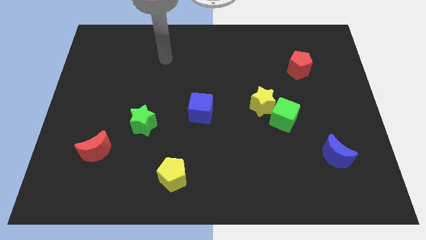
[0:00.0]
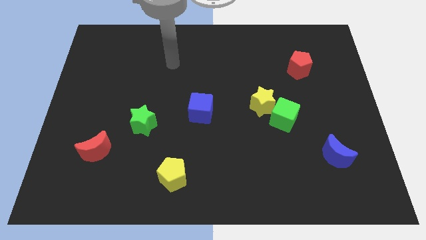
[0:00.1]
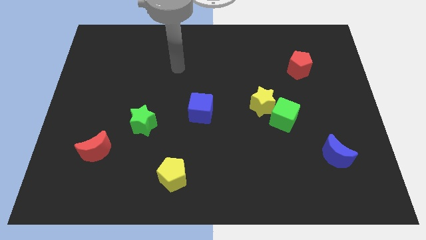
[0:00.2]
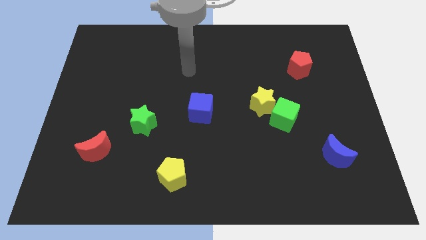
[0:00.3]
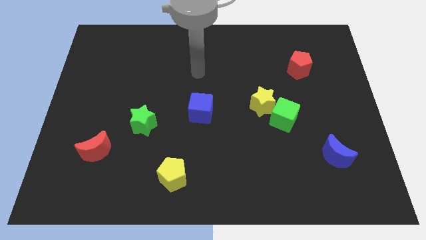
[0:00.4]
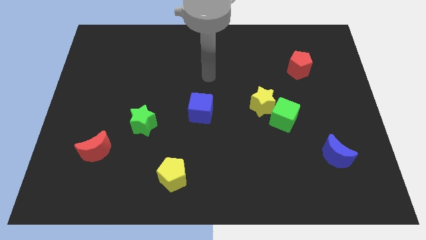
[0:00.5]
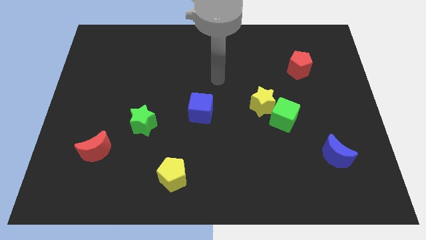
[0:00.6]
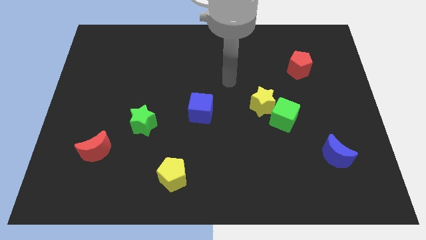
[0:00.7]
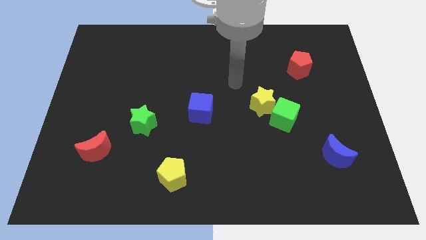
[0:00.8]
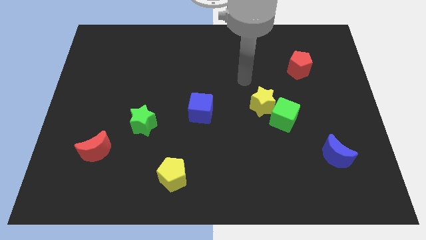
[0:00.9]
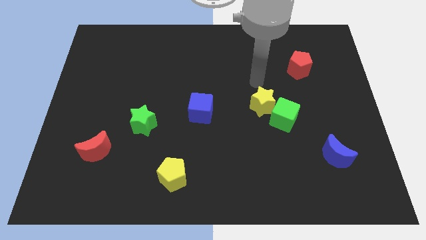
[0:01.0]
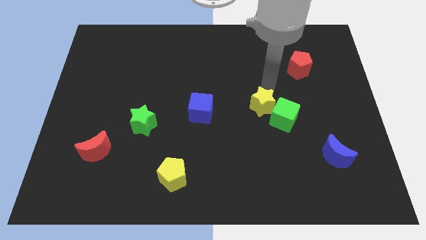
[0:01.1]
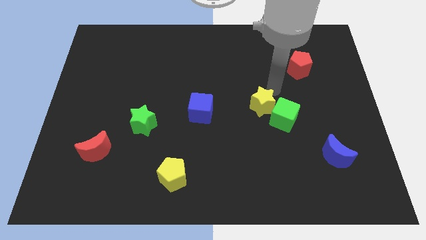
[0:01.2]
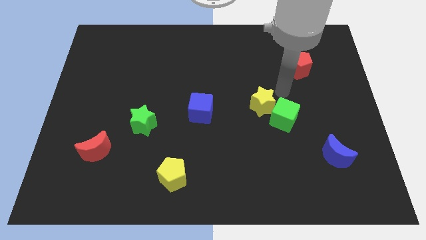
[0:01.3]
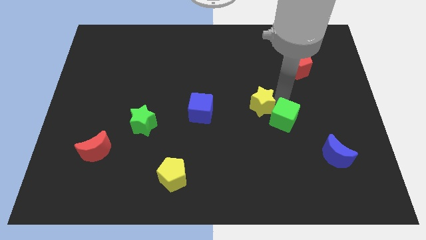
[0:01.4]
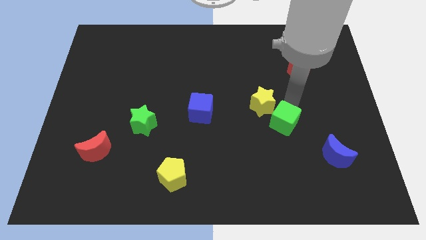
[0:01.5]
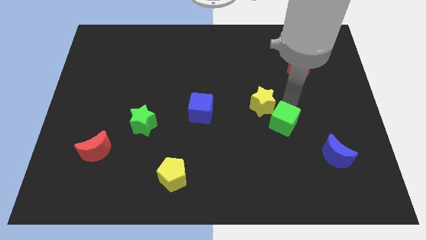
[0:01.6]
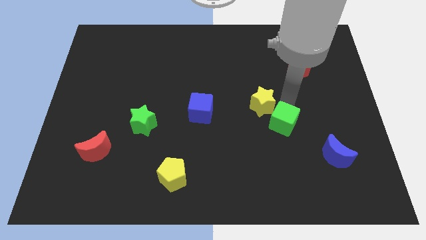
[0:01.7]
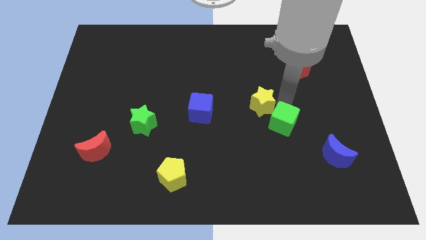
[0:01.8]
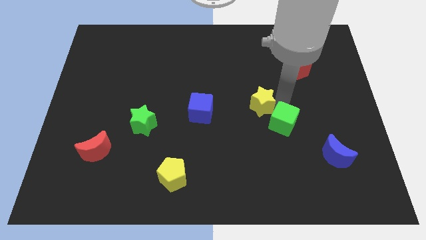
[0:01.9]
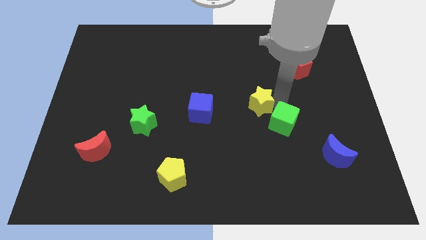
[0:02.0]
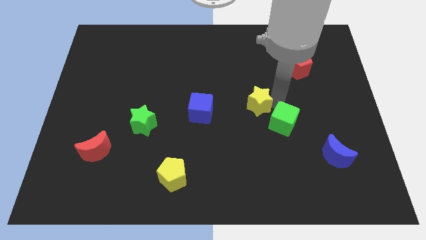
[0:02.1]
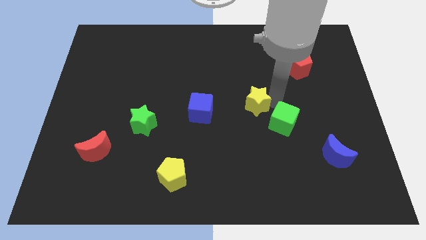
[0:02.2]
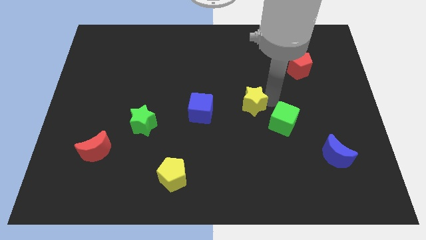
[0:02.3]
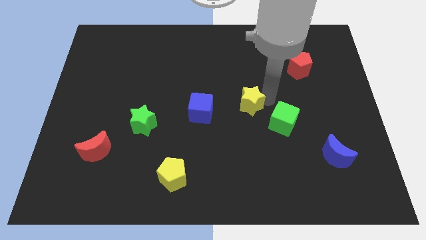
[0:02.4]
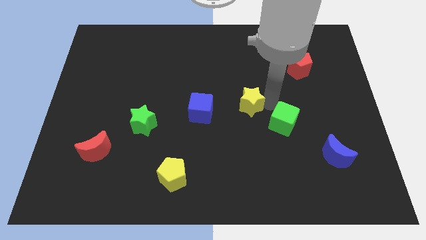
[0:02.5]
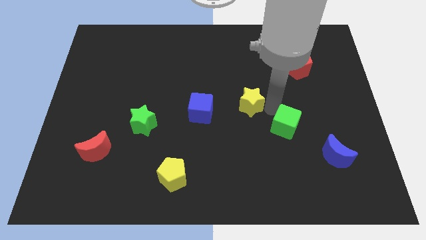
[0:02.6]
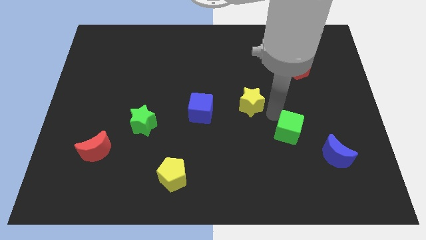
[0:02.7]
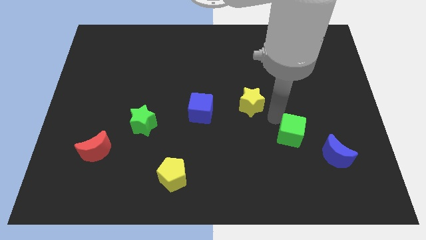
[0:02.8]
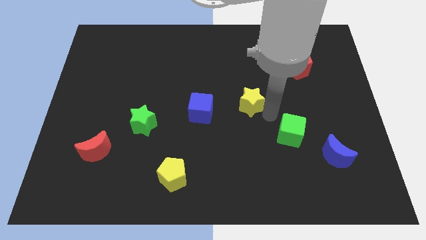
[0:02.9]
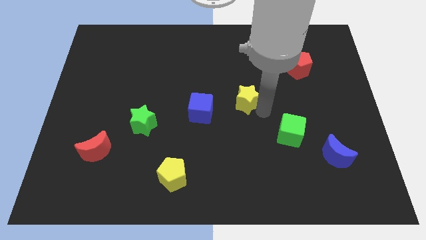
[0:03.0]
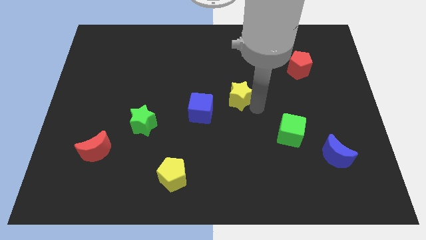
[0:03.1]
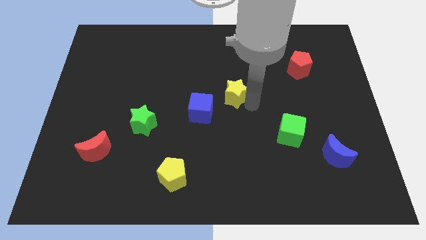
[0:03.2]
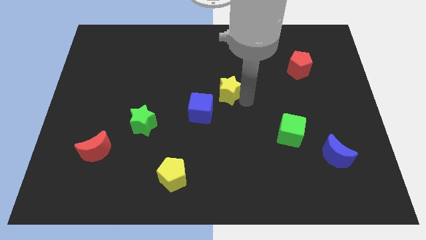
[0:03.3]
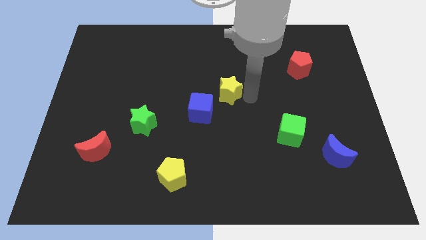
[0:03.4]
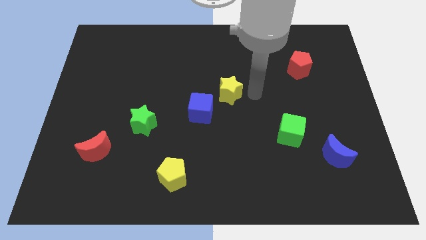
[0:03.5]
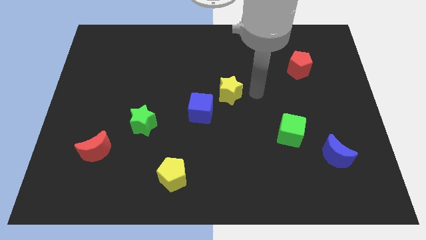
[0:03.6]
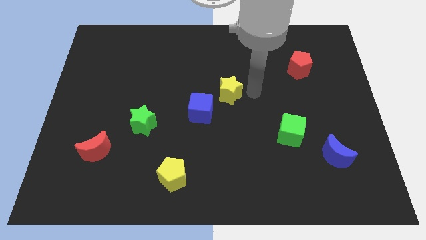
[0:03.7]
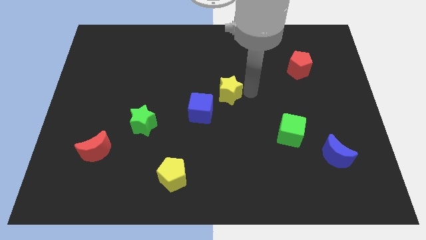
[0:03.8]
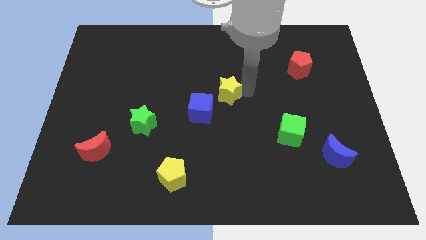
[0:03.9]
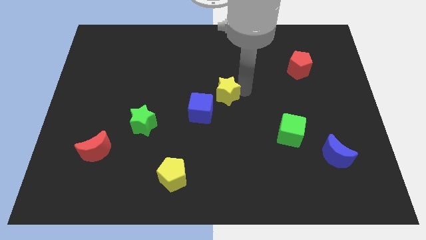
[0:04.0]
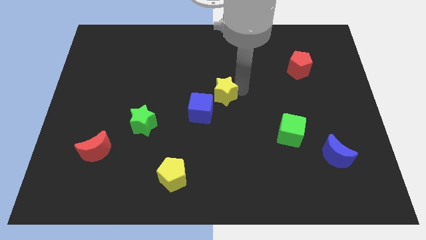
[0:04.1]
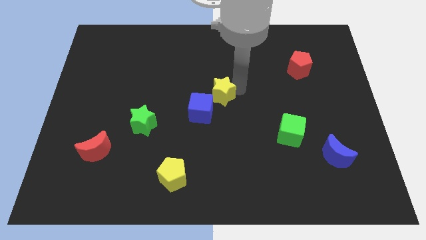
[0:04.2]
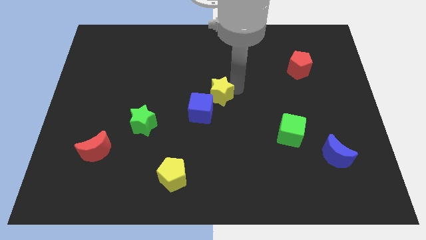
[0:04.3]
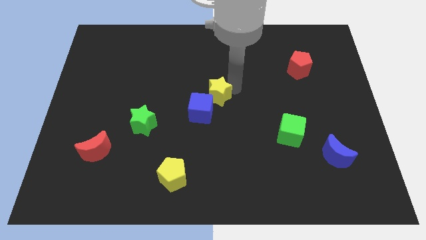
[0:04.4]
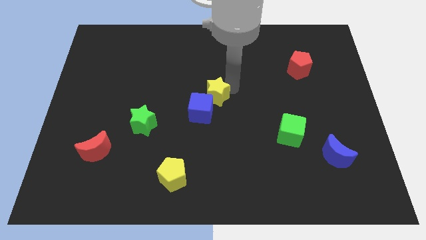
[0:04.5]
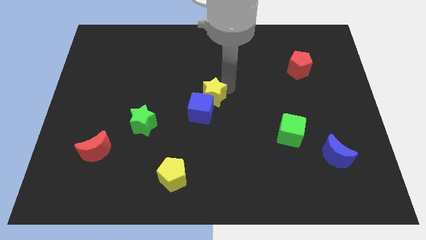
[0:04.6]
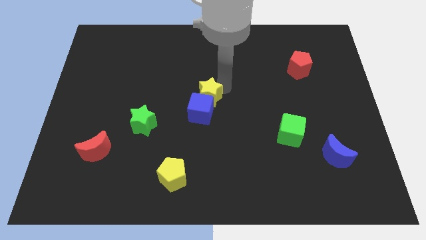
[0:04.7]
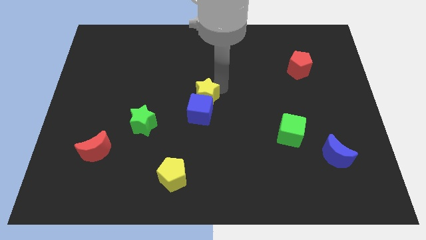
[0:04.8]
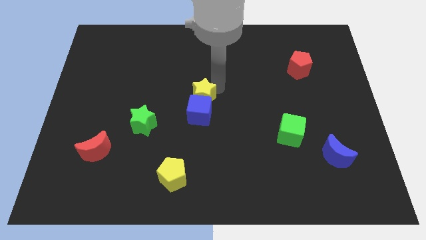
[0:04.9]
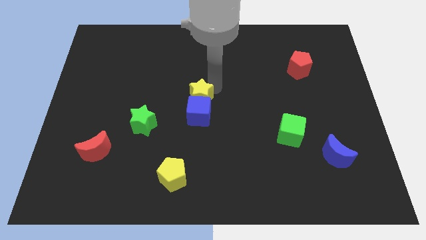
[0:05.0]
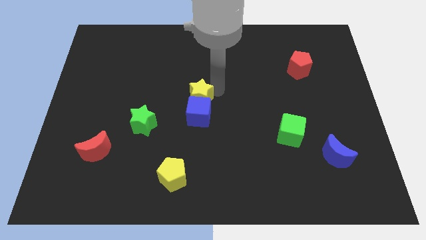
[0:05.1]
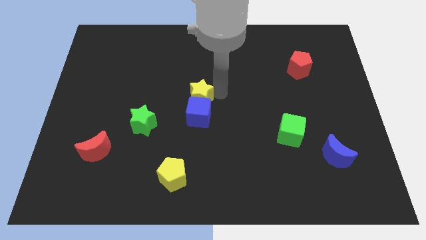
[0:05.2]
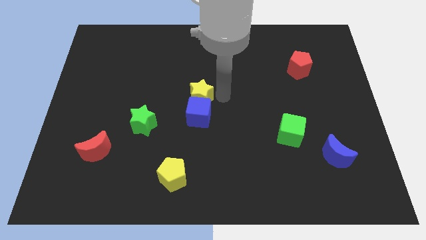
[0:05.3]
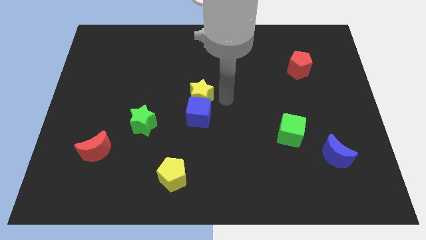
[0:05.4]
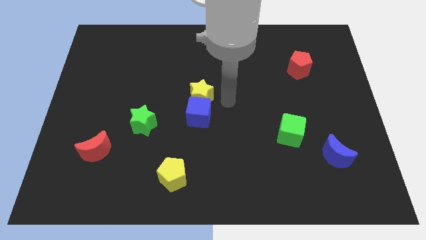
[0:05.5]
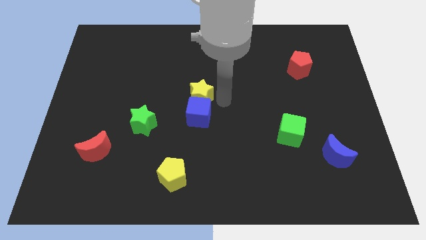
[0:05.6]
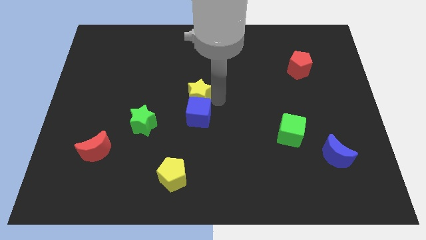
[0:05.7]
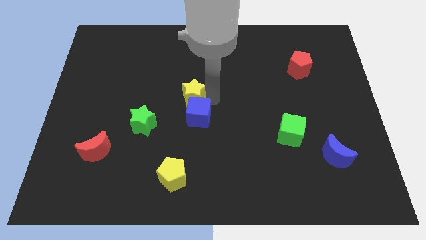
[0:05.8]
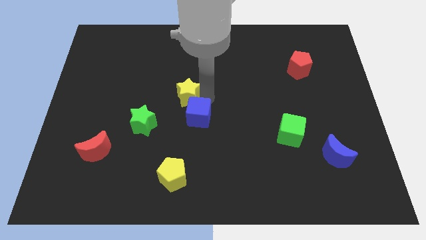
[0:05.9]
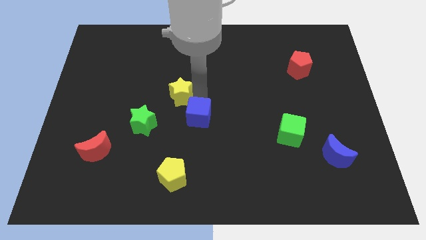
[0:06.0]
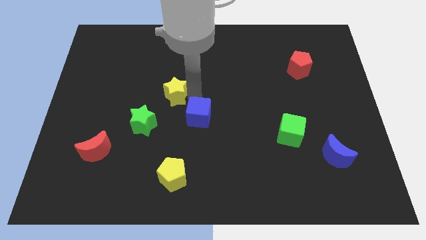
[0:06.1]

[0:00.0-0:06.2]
slide the yellow star left

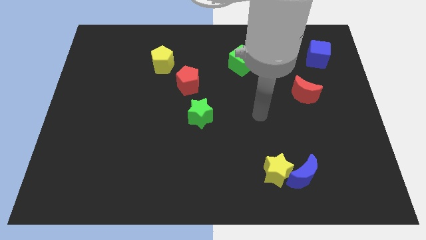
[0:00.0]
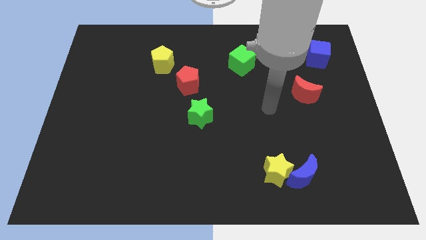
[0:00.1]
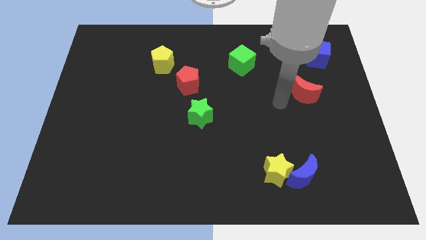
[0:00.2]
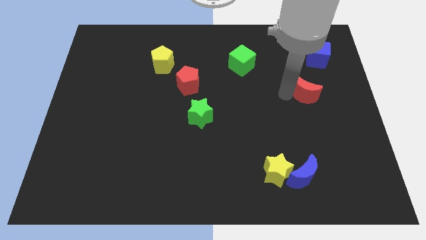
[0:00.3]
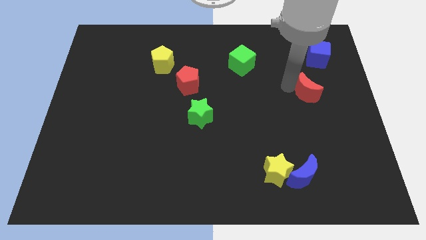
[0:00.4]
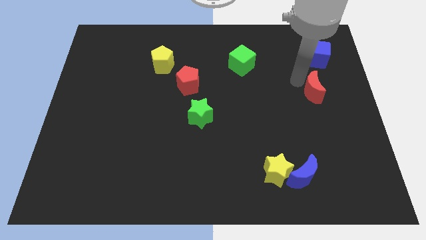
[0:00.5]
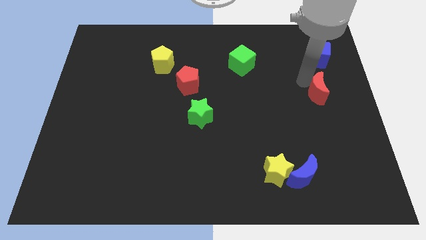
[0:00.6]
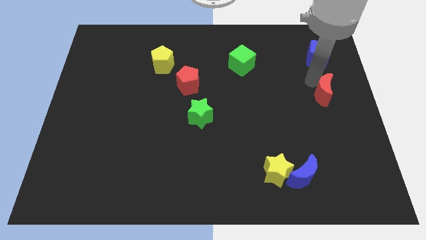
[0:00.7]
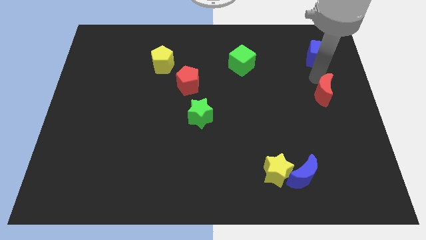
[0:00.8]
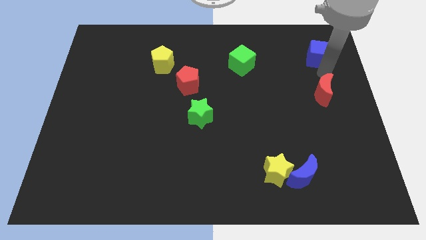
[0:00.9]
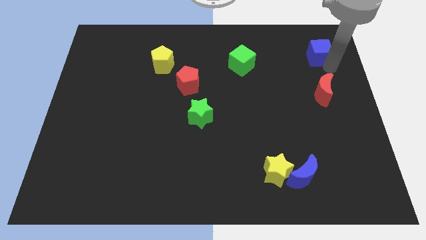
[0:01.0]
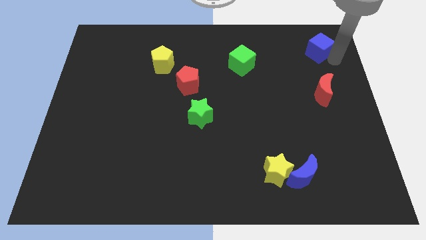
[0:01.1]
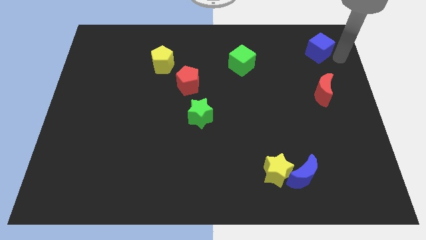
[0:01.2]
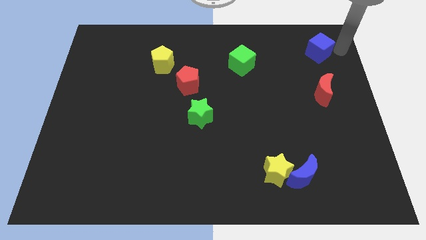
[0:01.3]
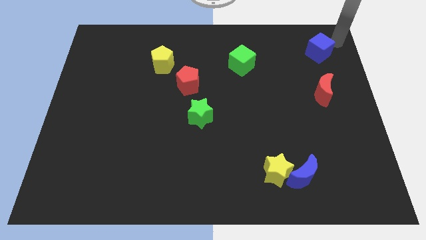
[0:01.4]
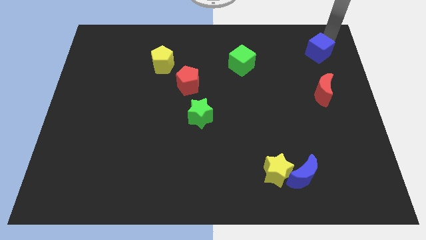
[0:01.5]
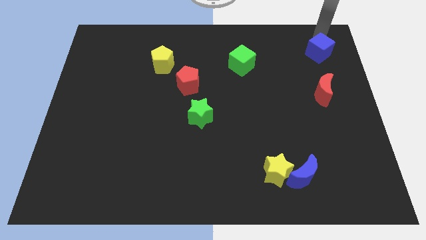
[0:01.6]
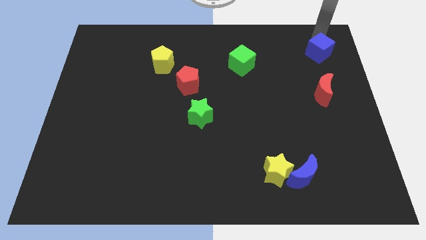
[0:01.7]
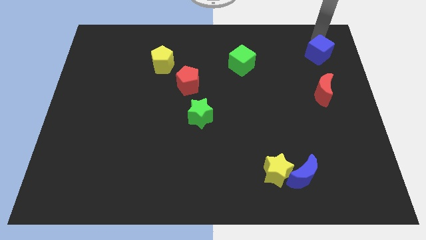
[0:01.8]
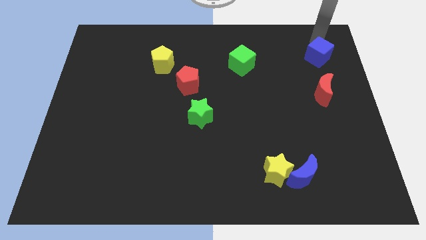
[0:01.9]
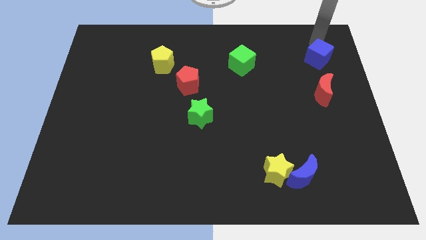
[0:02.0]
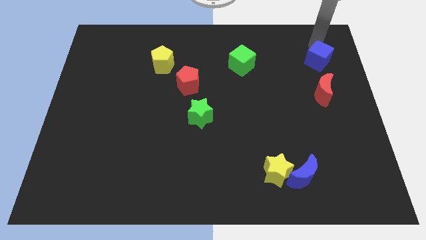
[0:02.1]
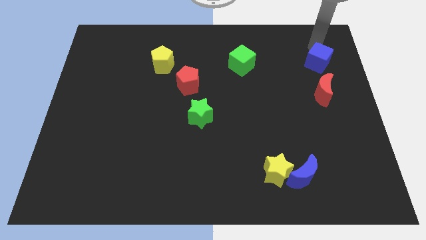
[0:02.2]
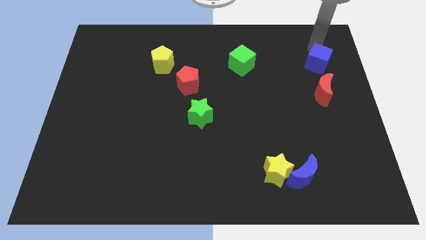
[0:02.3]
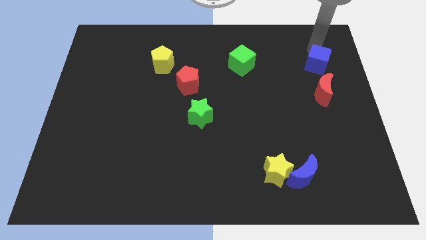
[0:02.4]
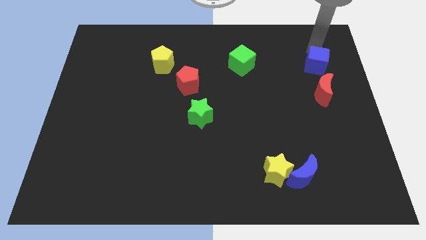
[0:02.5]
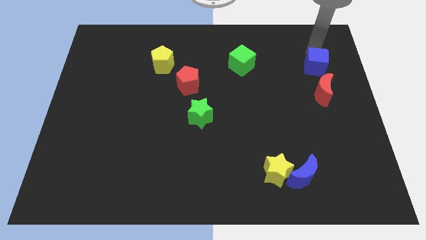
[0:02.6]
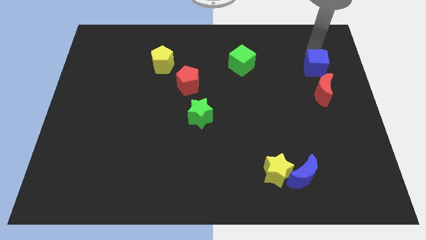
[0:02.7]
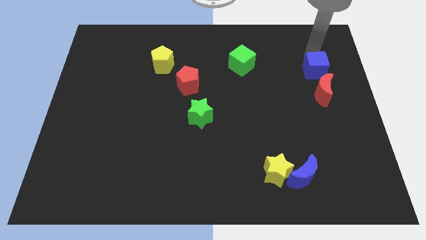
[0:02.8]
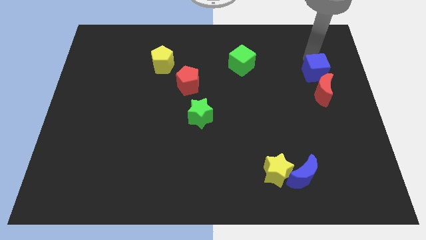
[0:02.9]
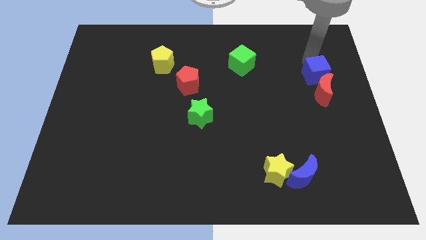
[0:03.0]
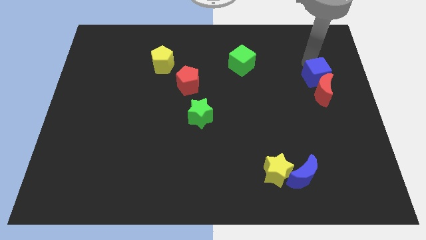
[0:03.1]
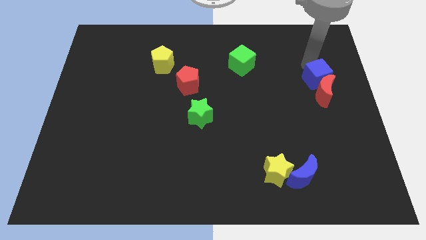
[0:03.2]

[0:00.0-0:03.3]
push the blue cube down a little
